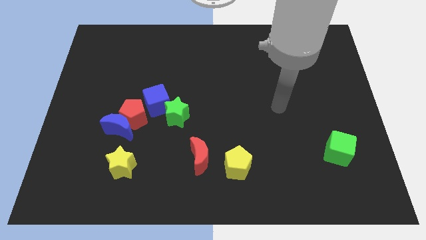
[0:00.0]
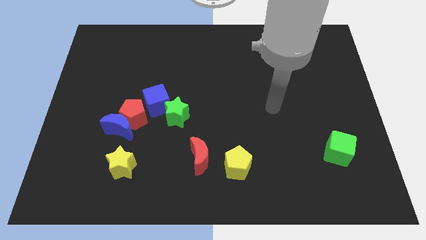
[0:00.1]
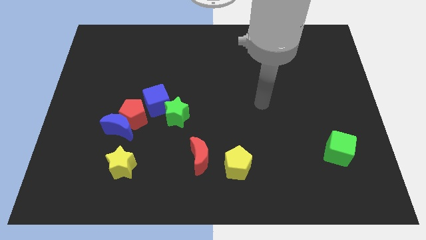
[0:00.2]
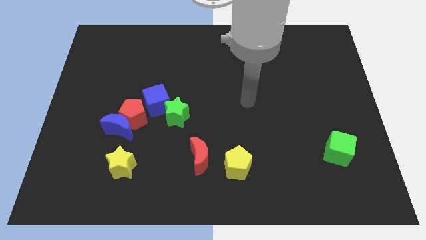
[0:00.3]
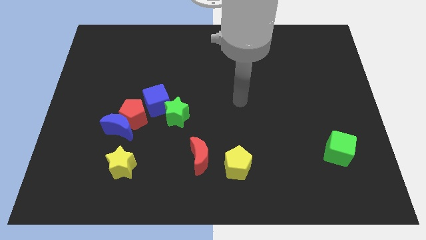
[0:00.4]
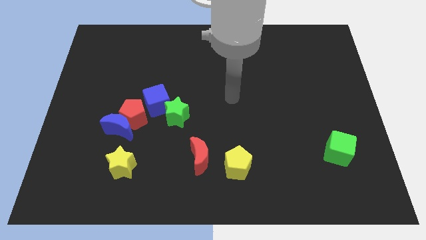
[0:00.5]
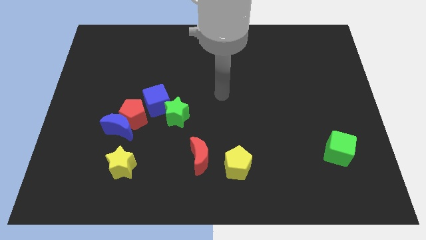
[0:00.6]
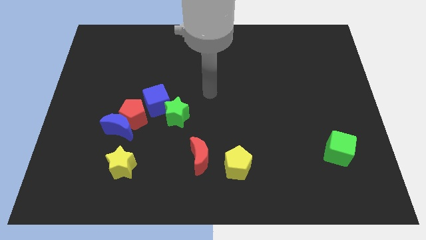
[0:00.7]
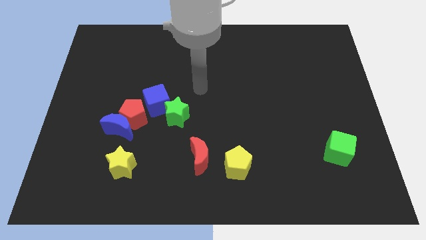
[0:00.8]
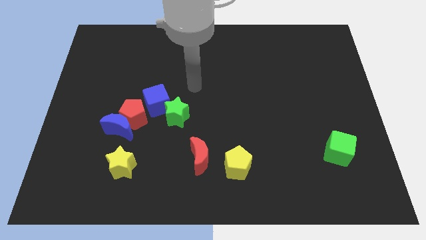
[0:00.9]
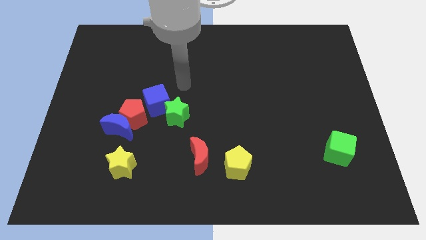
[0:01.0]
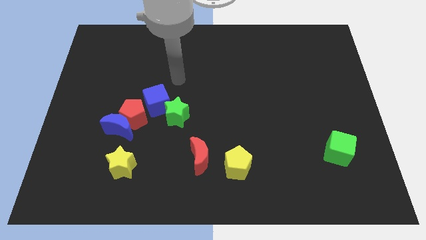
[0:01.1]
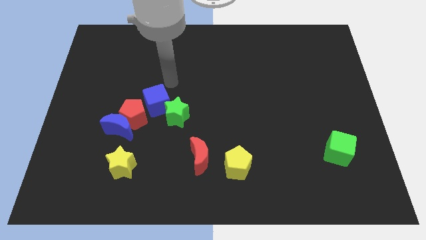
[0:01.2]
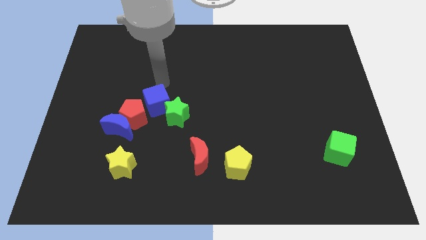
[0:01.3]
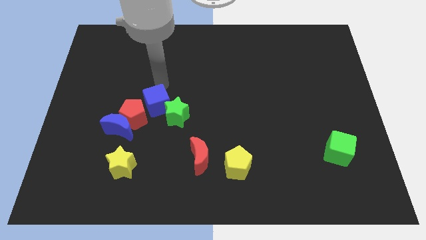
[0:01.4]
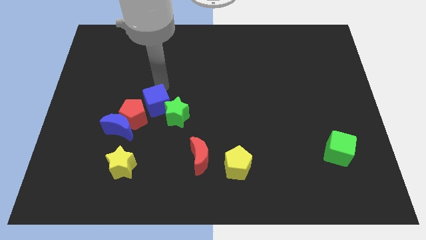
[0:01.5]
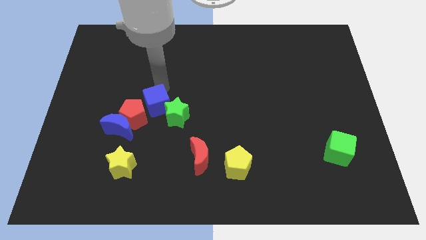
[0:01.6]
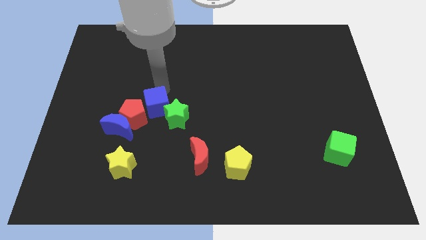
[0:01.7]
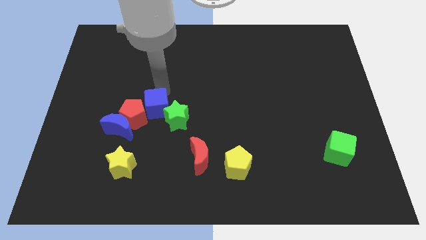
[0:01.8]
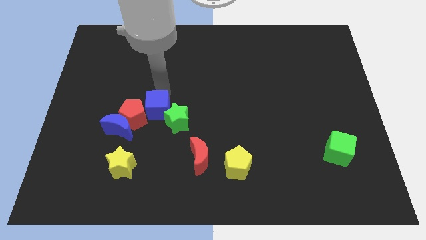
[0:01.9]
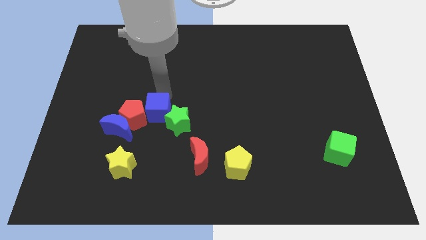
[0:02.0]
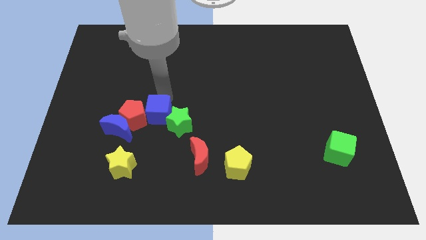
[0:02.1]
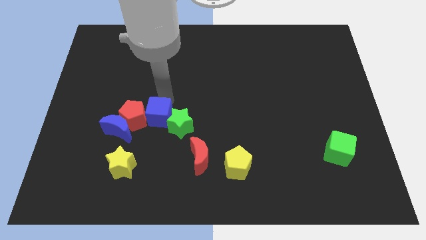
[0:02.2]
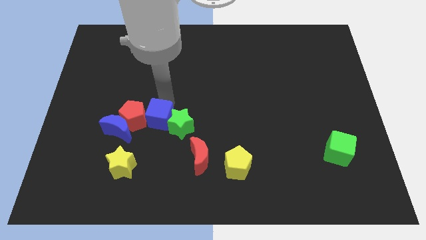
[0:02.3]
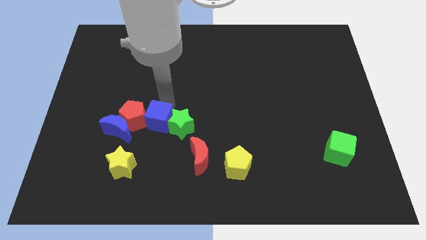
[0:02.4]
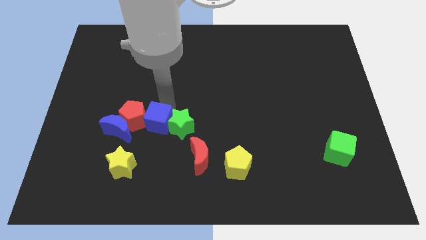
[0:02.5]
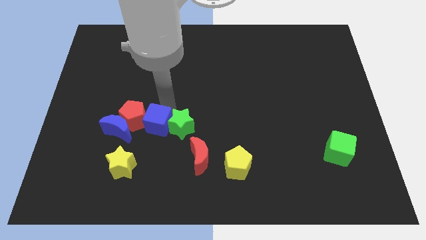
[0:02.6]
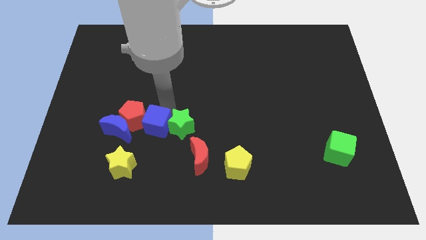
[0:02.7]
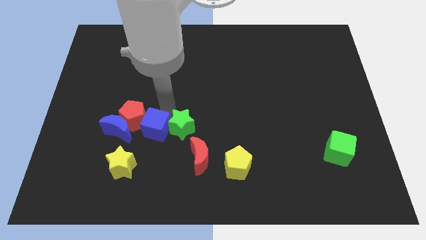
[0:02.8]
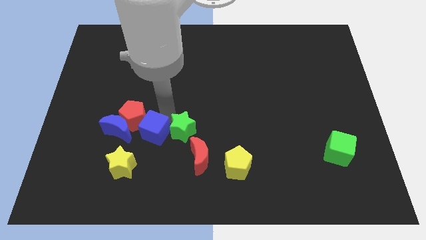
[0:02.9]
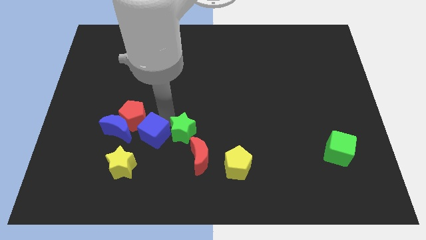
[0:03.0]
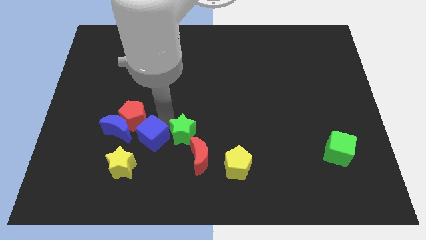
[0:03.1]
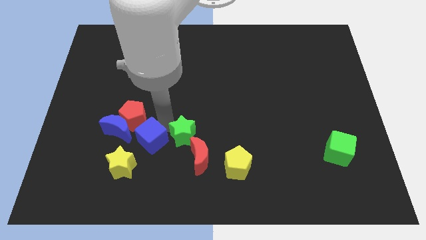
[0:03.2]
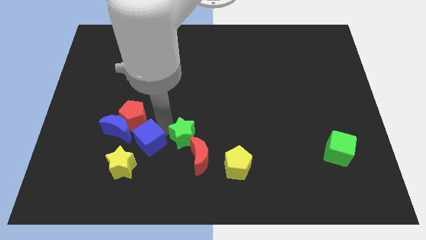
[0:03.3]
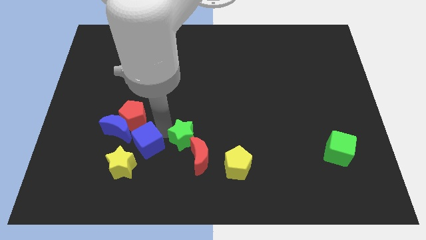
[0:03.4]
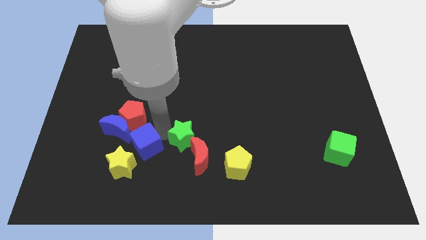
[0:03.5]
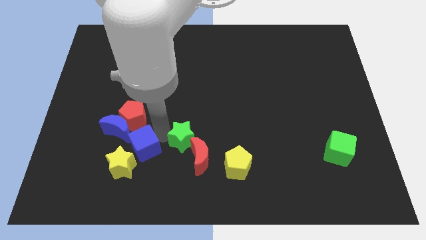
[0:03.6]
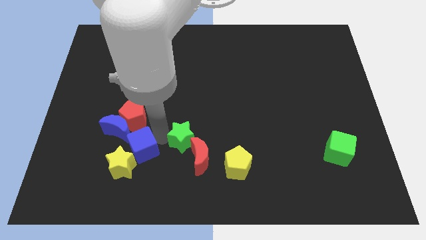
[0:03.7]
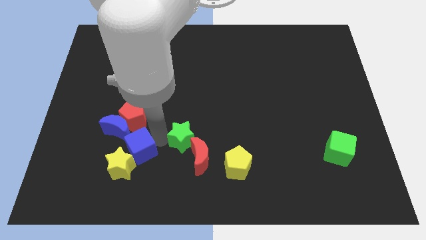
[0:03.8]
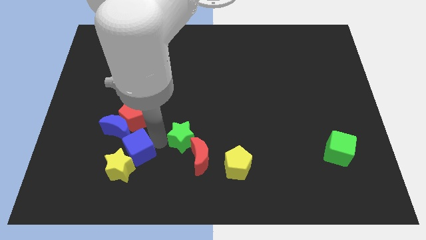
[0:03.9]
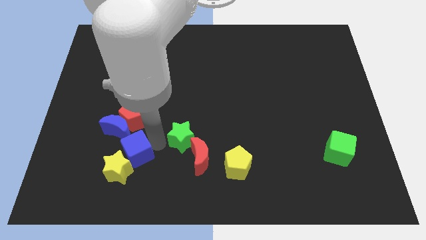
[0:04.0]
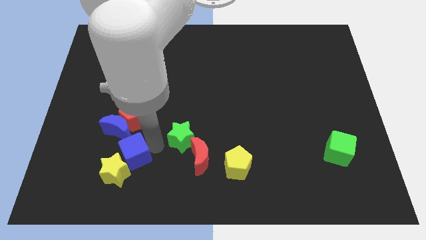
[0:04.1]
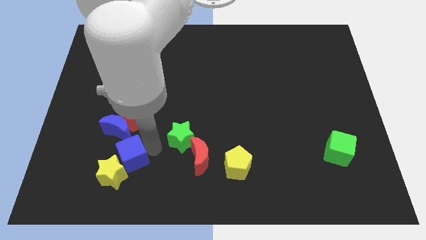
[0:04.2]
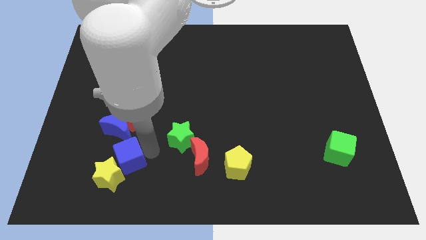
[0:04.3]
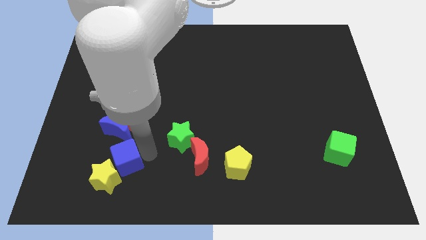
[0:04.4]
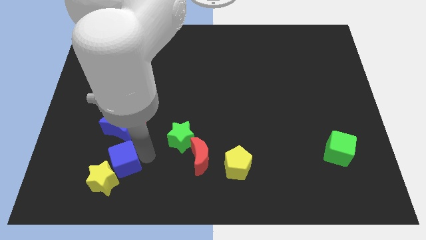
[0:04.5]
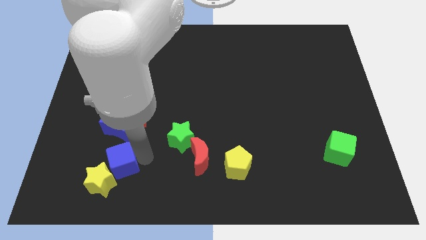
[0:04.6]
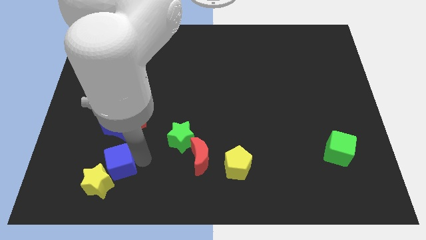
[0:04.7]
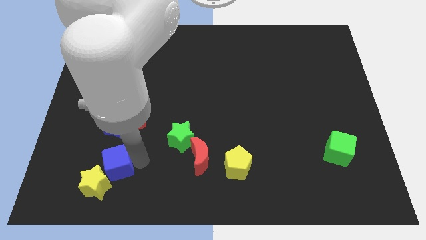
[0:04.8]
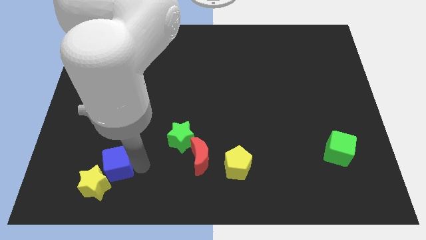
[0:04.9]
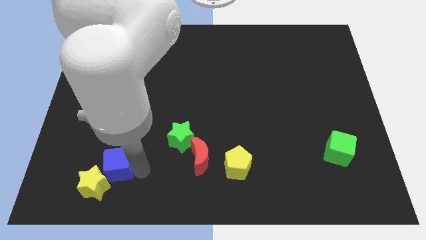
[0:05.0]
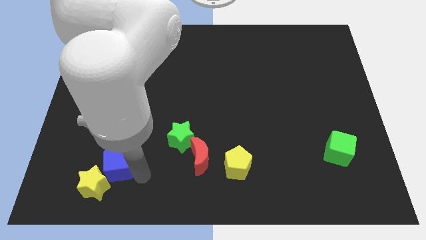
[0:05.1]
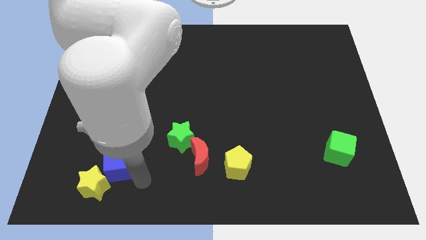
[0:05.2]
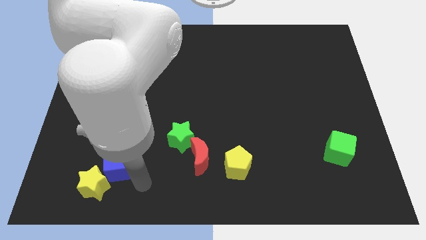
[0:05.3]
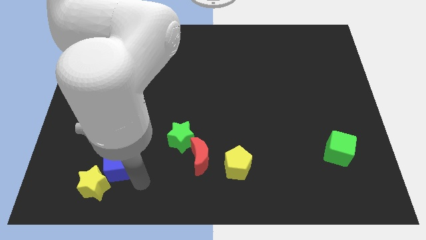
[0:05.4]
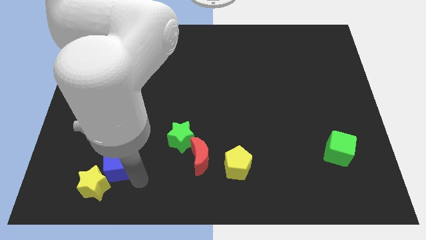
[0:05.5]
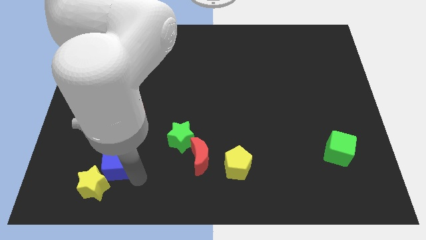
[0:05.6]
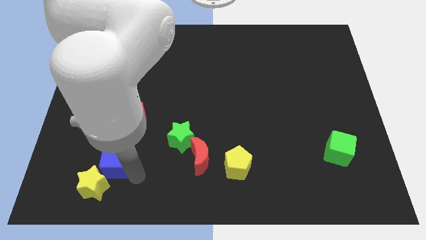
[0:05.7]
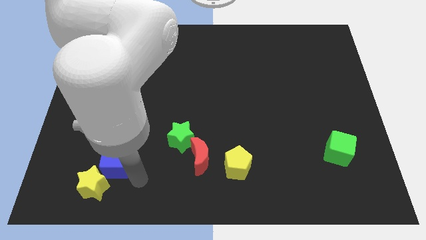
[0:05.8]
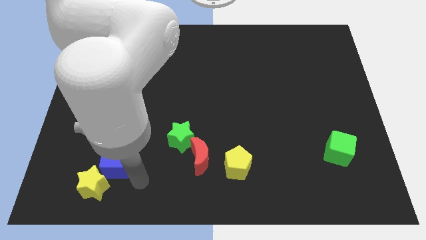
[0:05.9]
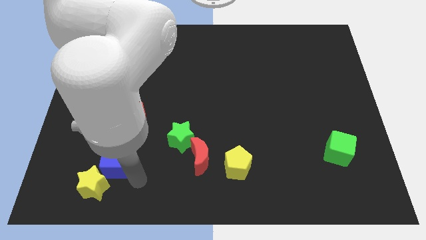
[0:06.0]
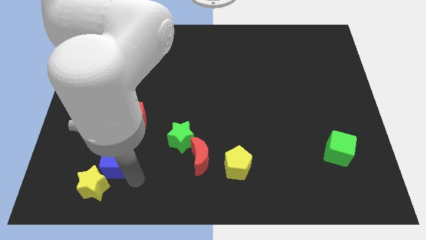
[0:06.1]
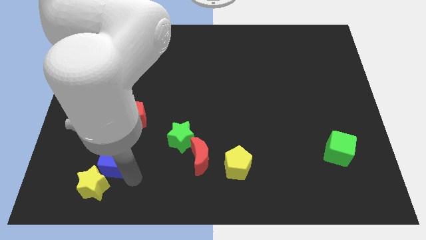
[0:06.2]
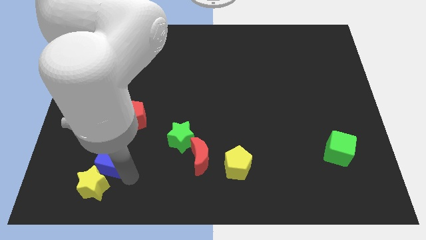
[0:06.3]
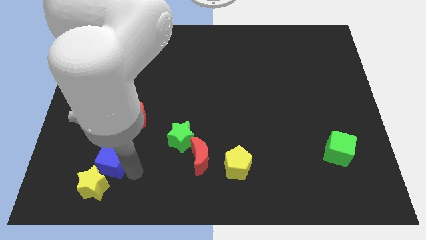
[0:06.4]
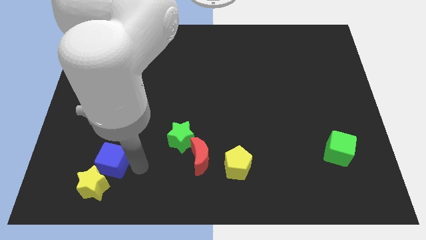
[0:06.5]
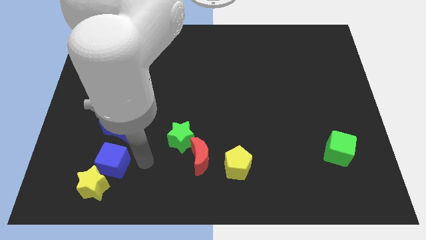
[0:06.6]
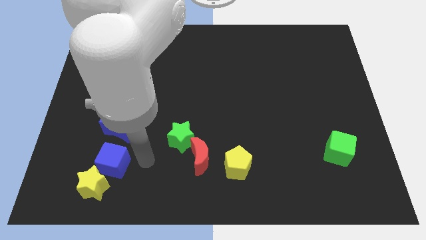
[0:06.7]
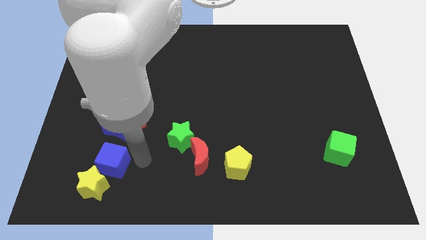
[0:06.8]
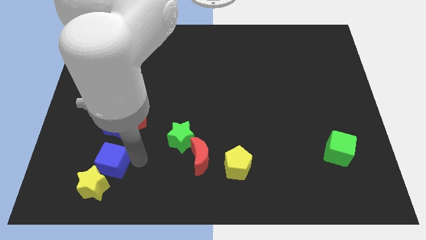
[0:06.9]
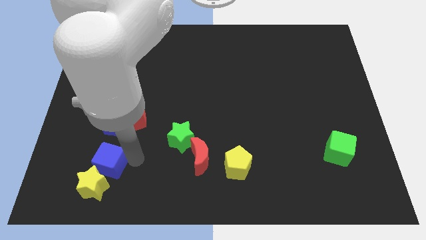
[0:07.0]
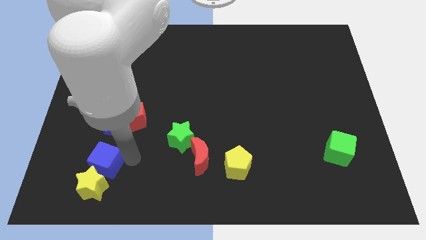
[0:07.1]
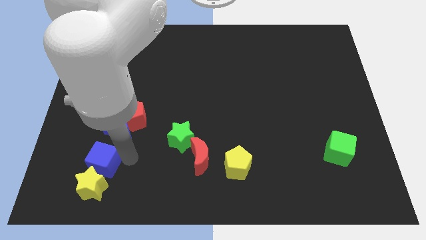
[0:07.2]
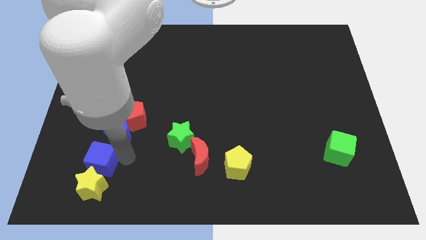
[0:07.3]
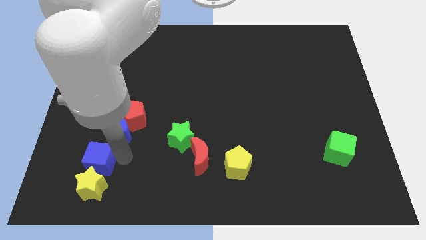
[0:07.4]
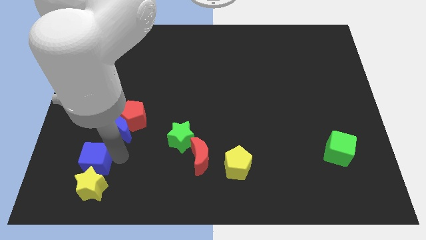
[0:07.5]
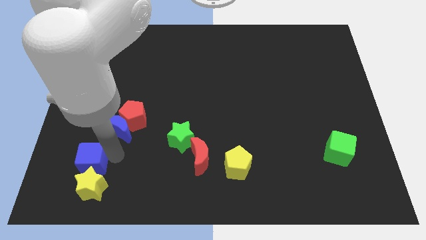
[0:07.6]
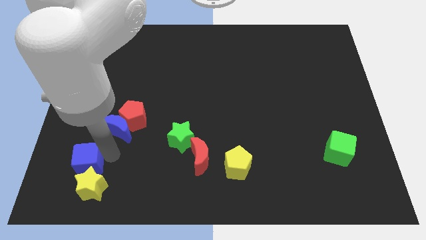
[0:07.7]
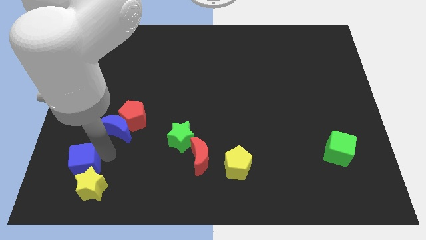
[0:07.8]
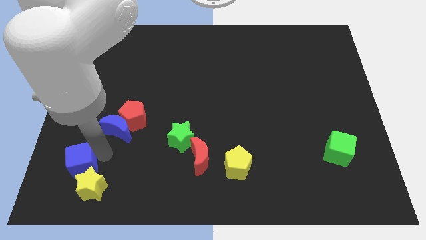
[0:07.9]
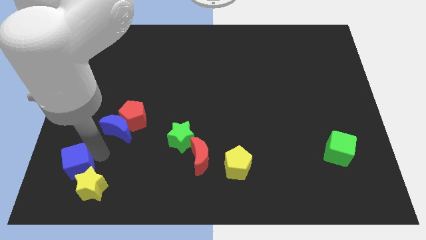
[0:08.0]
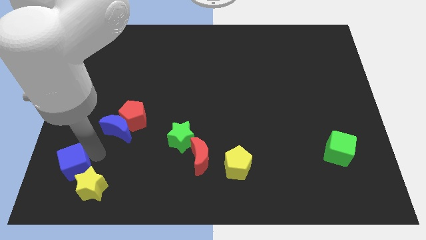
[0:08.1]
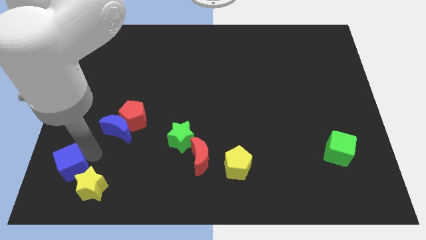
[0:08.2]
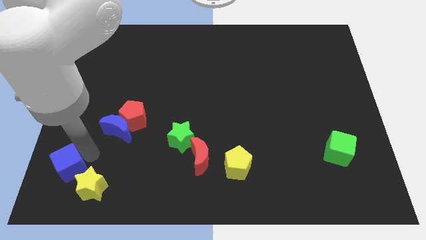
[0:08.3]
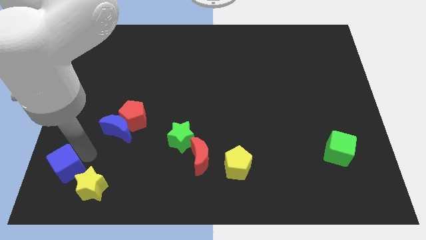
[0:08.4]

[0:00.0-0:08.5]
push the blue cube to the lower left corner
